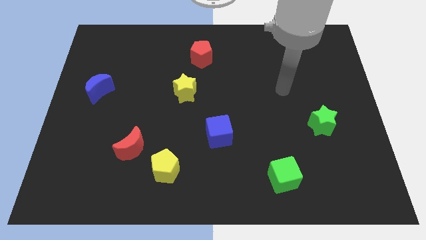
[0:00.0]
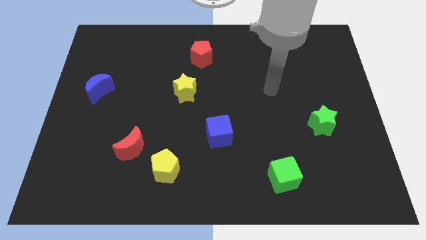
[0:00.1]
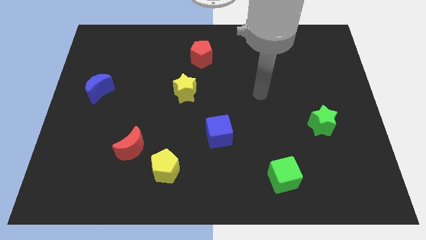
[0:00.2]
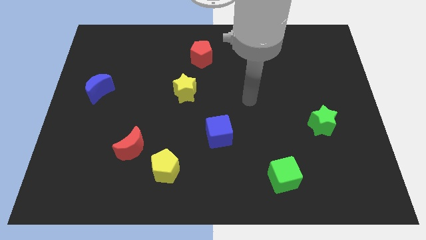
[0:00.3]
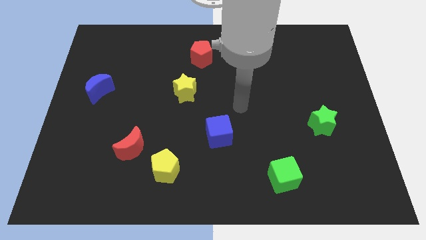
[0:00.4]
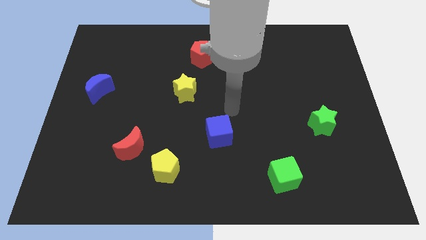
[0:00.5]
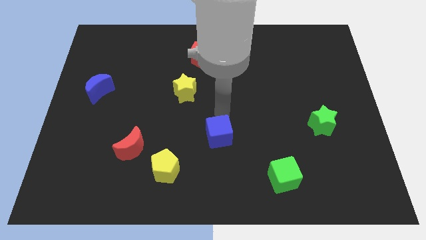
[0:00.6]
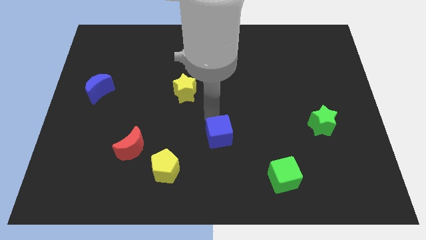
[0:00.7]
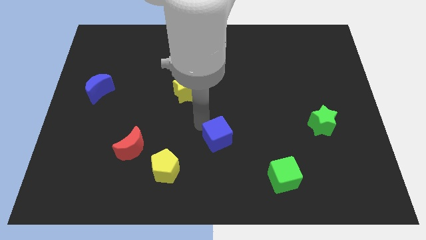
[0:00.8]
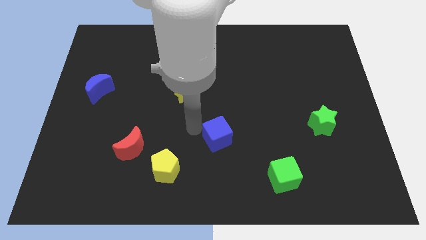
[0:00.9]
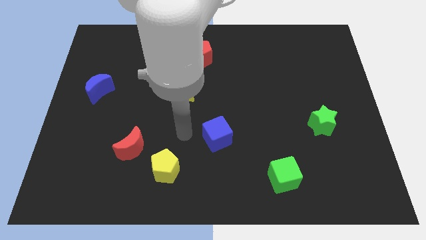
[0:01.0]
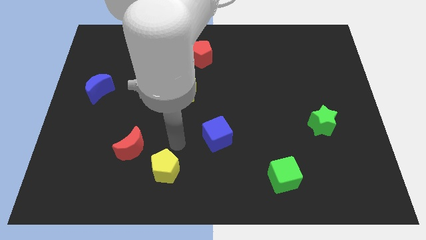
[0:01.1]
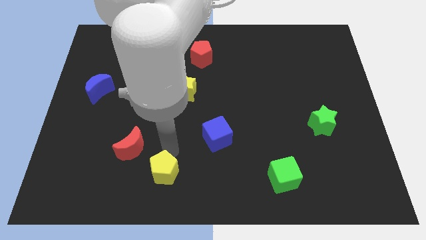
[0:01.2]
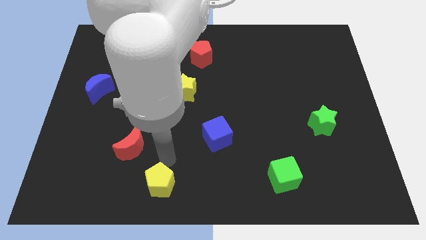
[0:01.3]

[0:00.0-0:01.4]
pull the red moon apart from the yellow pentagon

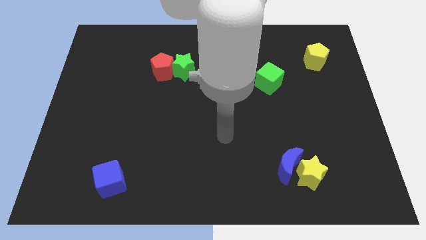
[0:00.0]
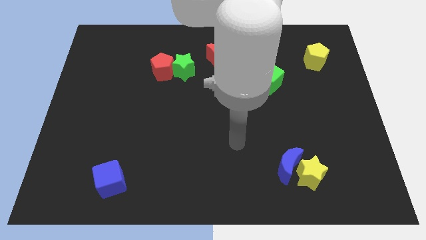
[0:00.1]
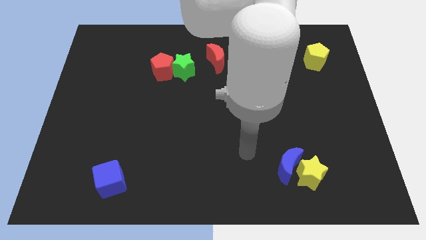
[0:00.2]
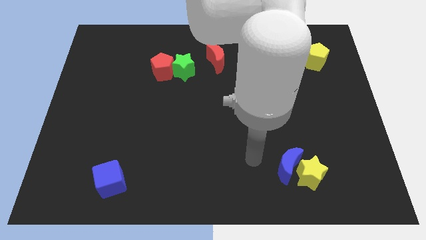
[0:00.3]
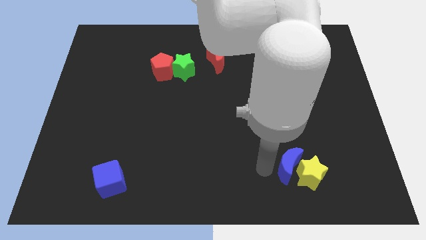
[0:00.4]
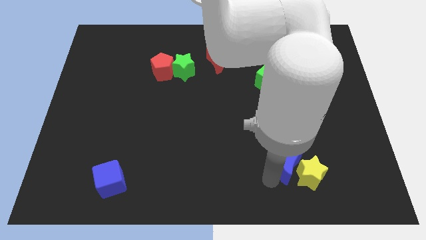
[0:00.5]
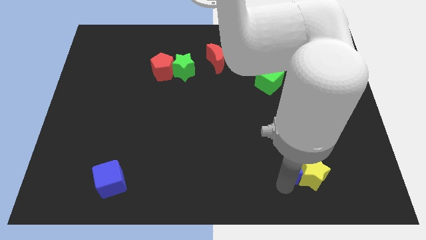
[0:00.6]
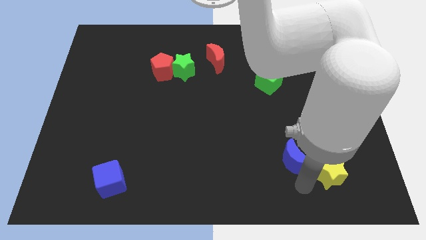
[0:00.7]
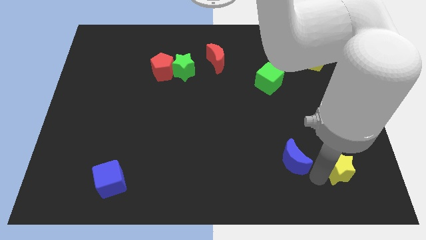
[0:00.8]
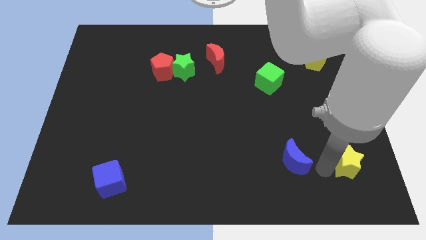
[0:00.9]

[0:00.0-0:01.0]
separate the blue moon from the yellow star

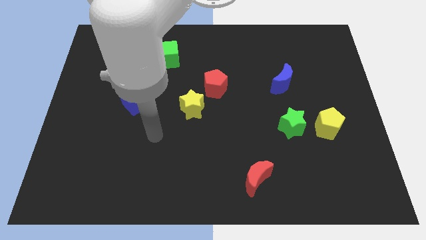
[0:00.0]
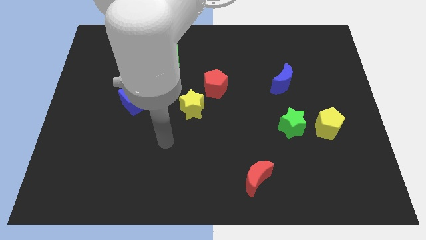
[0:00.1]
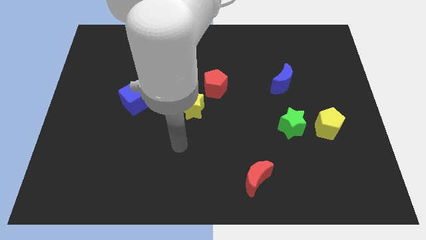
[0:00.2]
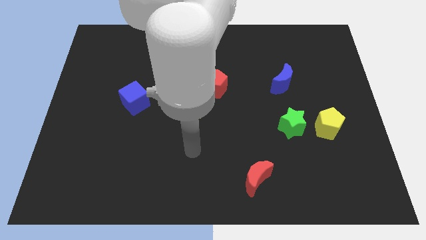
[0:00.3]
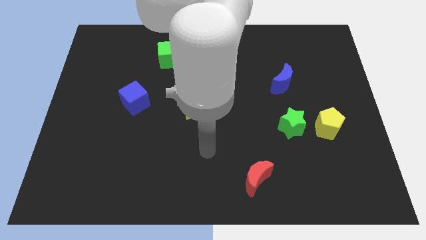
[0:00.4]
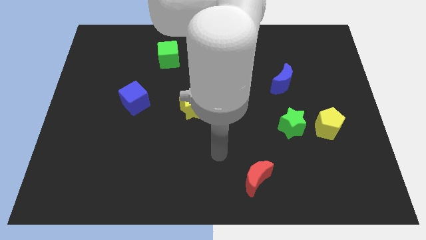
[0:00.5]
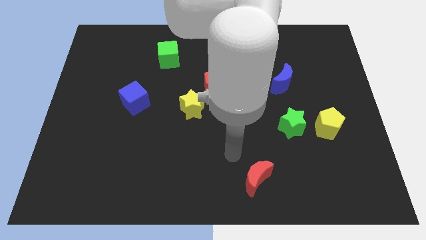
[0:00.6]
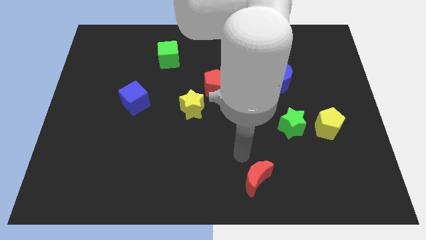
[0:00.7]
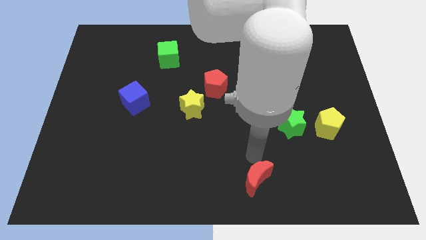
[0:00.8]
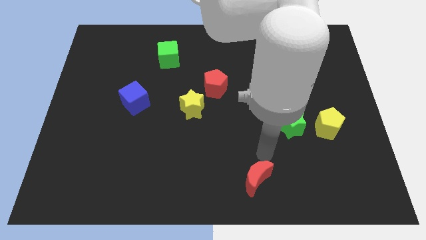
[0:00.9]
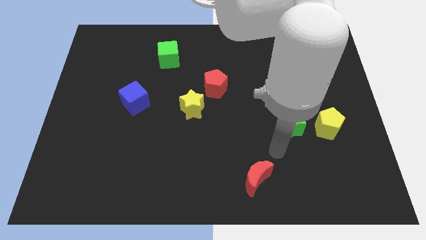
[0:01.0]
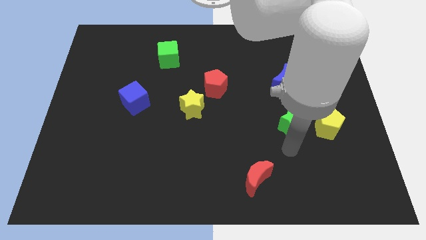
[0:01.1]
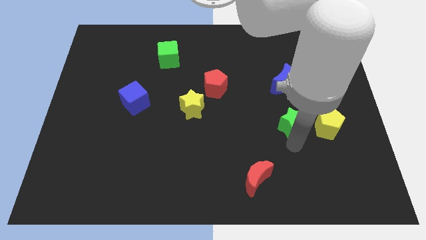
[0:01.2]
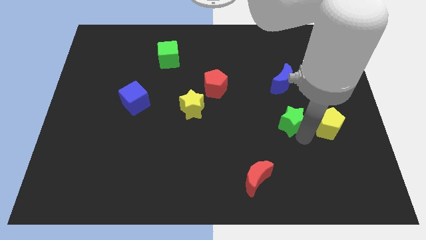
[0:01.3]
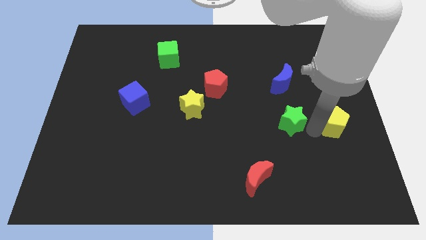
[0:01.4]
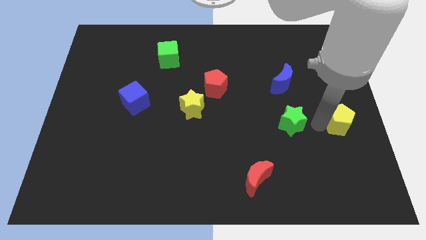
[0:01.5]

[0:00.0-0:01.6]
pull the green star apart from the yellow pentagon

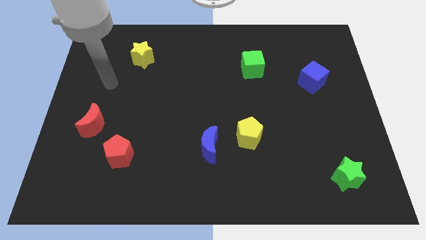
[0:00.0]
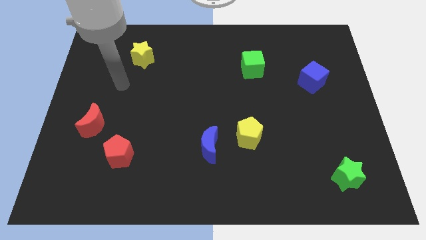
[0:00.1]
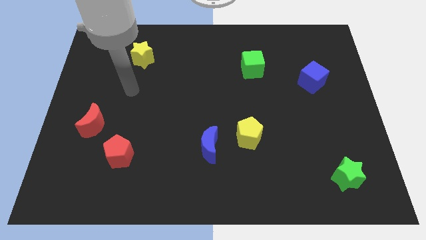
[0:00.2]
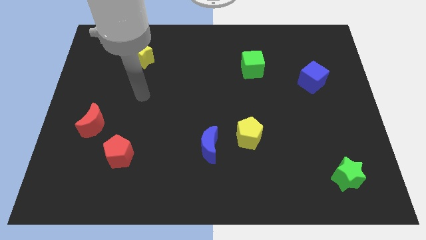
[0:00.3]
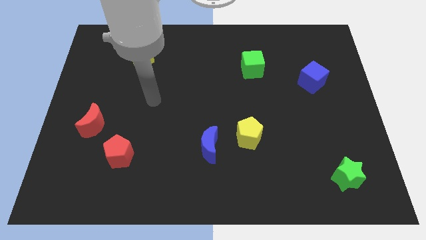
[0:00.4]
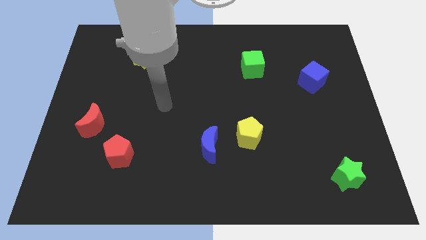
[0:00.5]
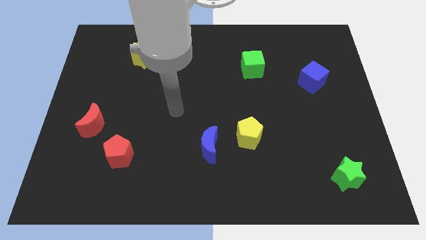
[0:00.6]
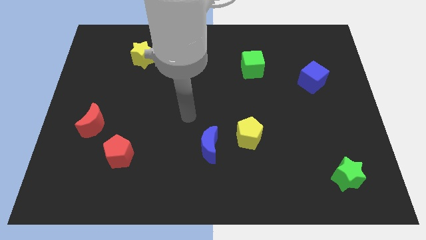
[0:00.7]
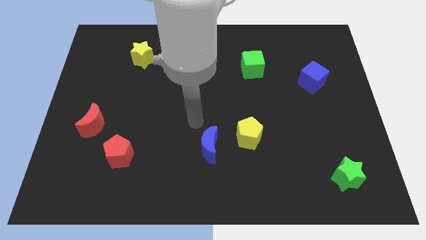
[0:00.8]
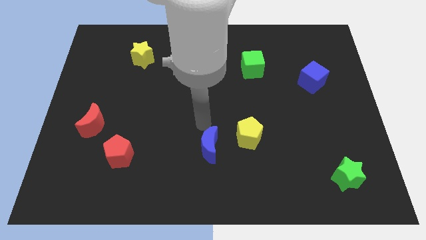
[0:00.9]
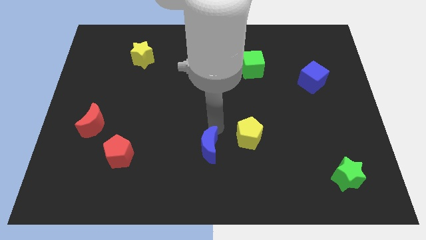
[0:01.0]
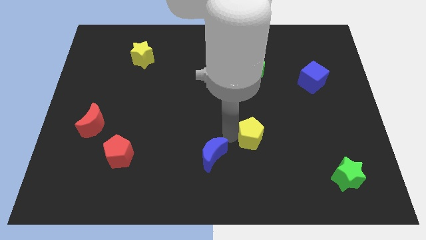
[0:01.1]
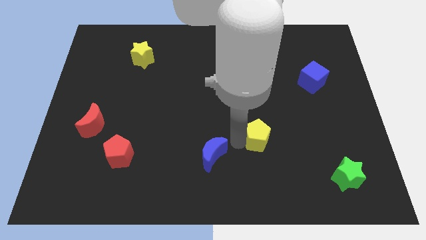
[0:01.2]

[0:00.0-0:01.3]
separate the blue moon from the yellow pentagon

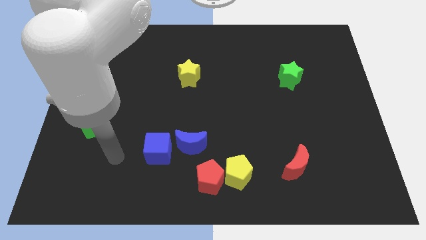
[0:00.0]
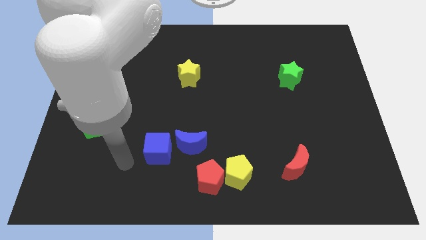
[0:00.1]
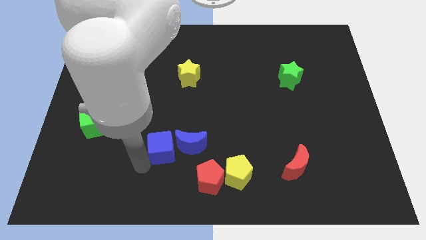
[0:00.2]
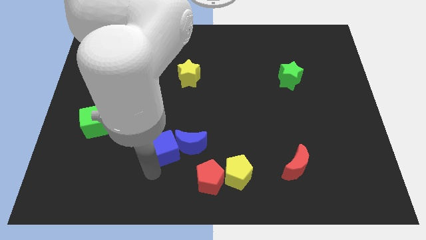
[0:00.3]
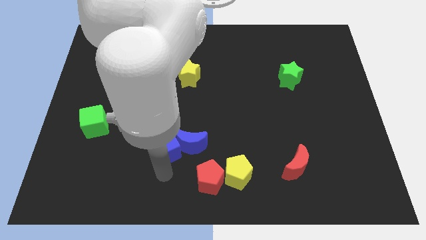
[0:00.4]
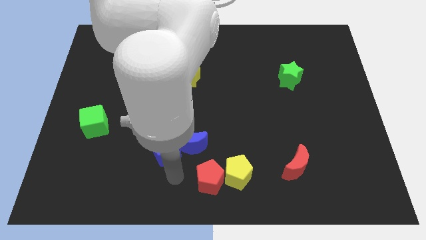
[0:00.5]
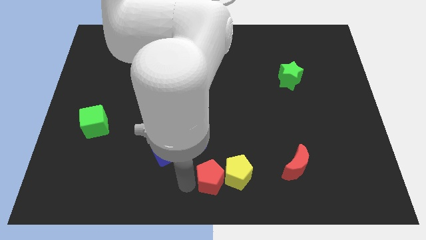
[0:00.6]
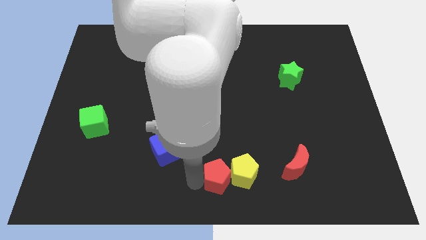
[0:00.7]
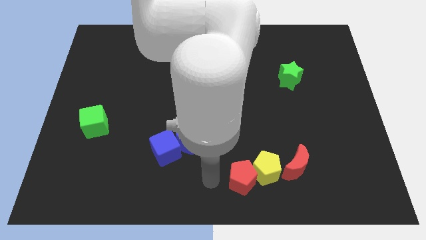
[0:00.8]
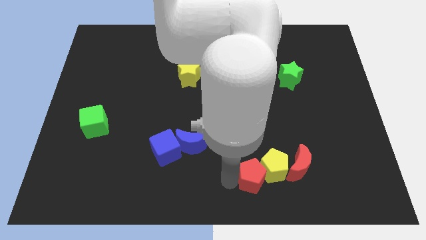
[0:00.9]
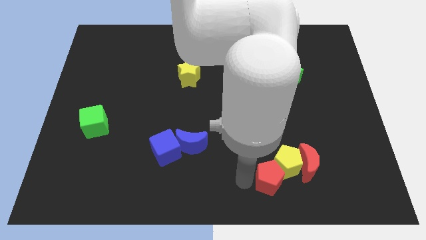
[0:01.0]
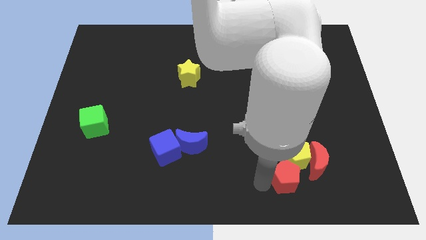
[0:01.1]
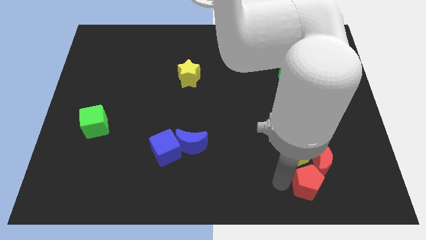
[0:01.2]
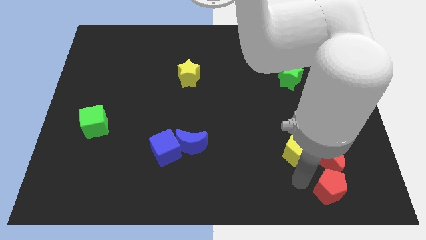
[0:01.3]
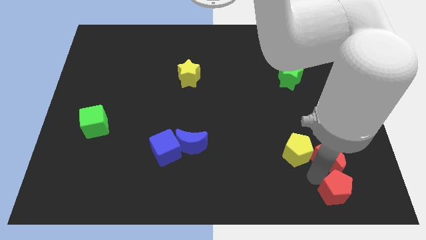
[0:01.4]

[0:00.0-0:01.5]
move the yellow pentagon away from the red pentagon

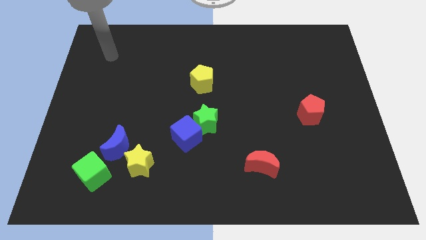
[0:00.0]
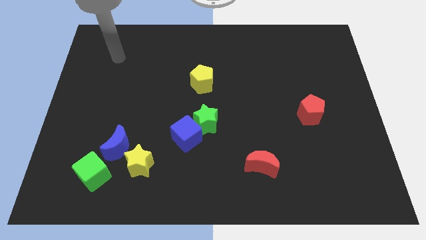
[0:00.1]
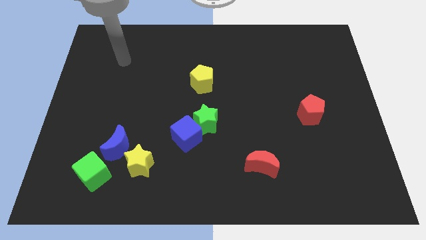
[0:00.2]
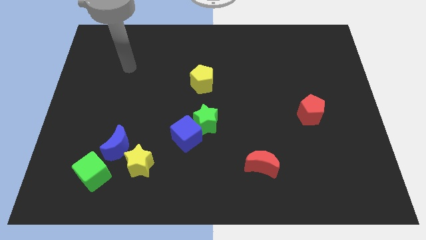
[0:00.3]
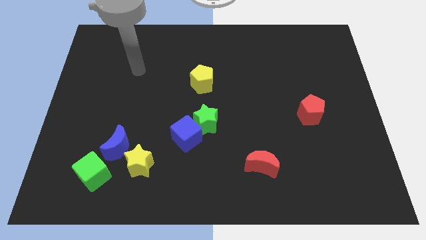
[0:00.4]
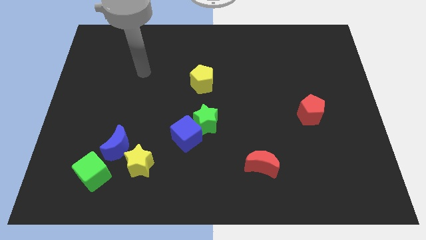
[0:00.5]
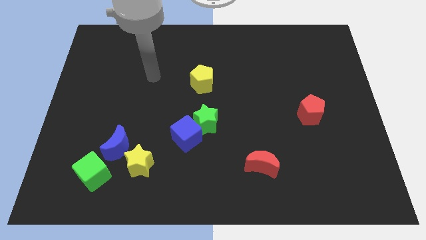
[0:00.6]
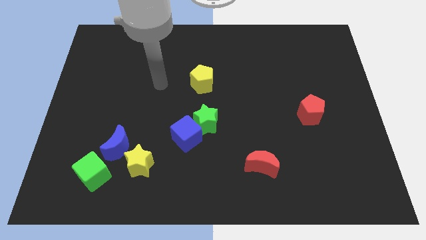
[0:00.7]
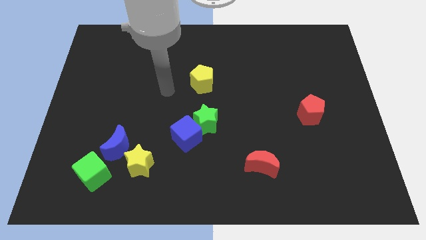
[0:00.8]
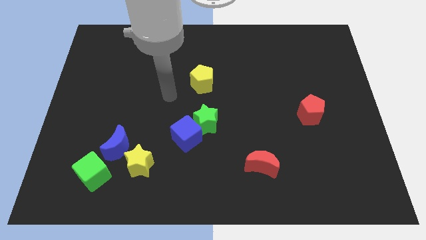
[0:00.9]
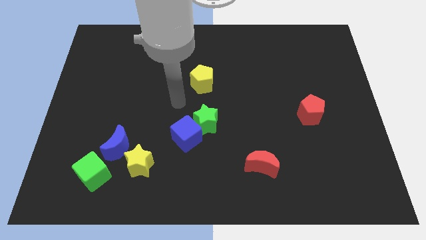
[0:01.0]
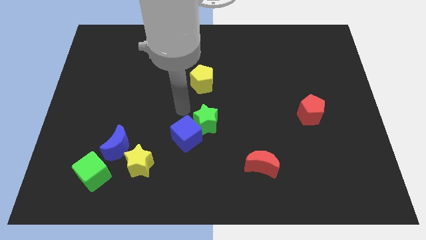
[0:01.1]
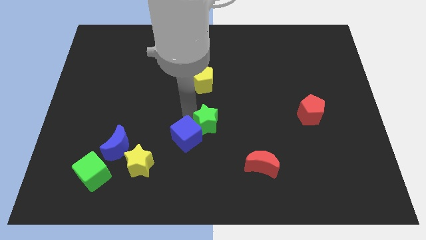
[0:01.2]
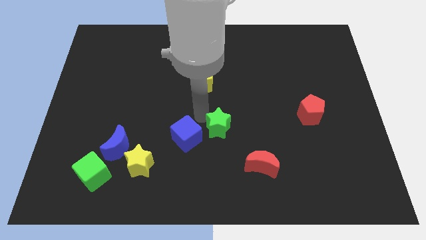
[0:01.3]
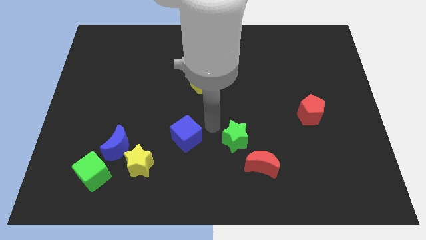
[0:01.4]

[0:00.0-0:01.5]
pull the blue cube apart from the green star

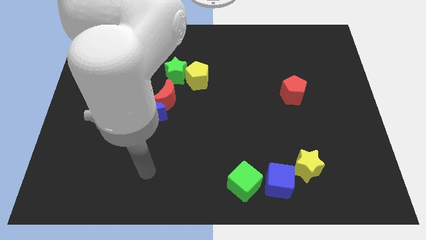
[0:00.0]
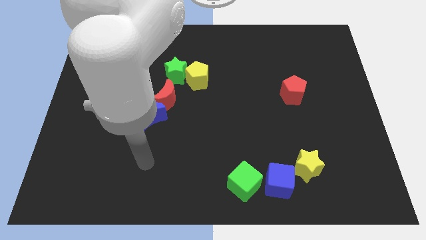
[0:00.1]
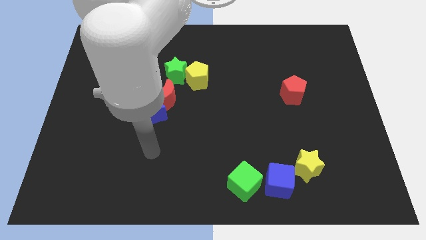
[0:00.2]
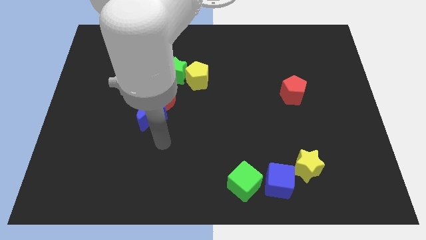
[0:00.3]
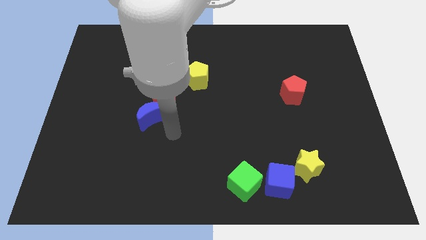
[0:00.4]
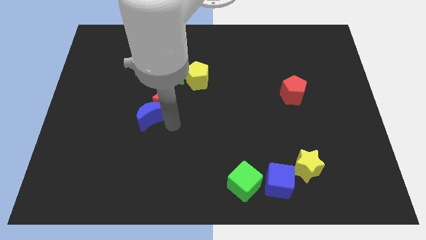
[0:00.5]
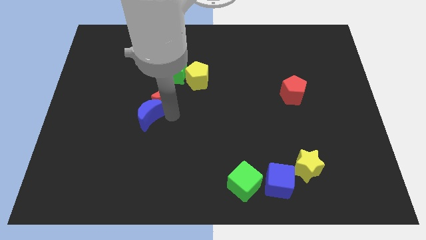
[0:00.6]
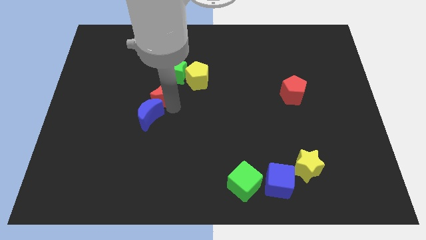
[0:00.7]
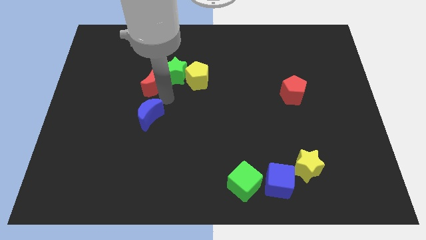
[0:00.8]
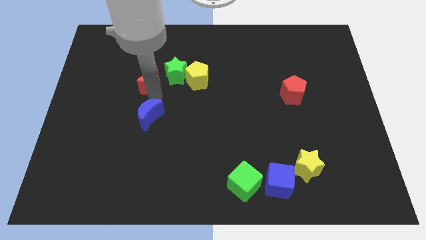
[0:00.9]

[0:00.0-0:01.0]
pull the blue moon apart from the red moon

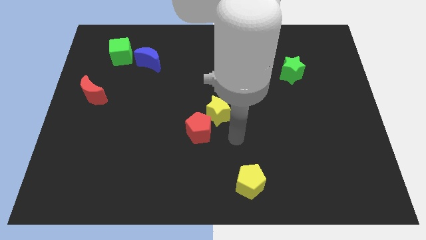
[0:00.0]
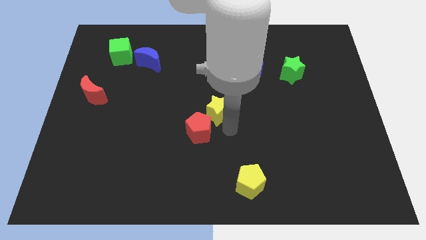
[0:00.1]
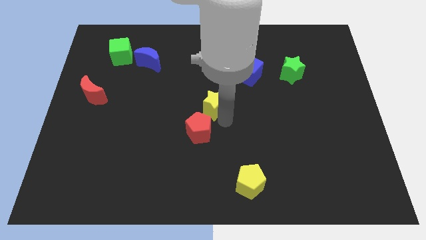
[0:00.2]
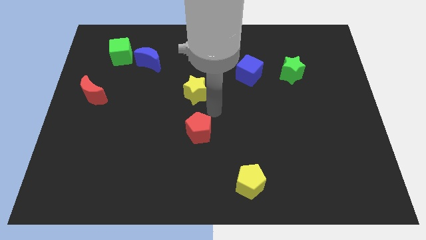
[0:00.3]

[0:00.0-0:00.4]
separate the red pentagon from the yellow star
